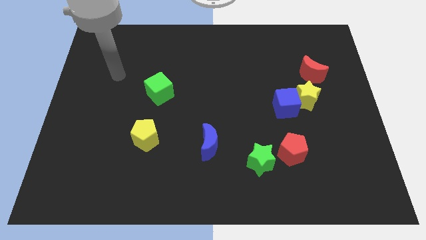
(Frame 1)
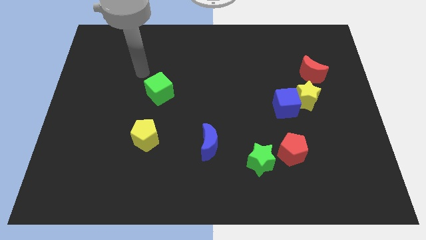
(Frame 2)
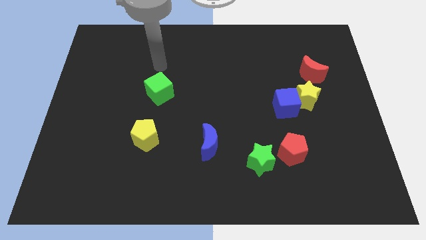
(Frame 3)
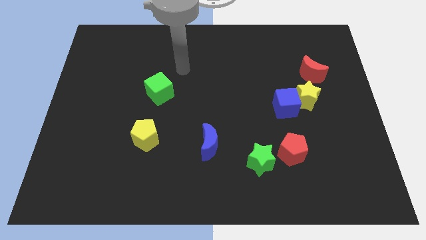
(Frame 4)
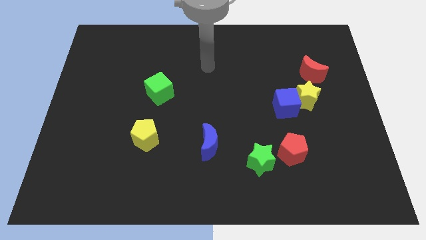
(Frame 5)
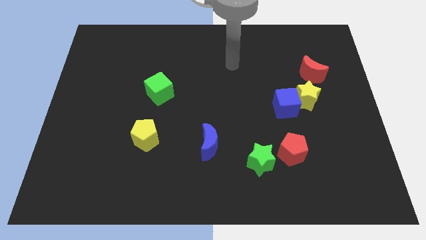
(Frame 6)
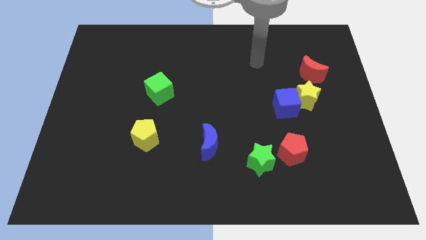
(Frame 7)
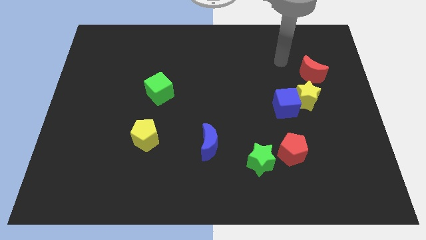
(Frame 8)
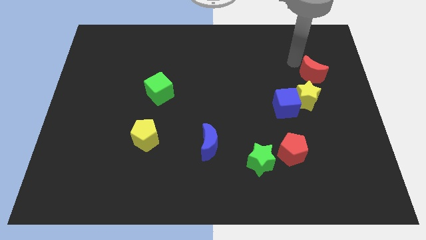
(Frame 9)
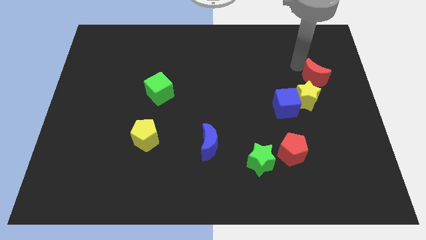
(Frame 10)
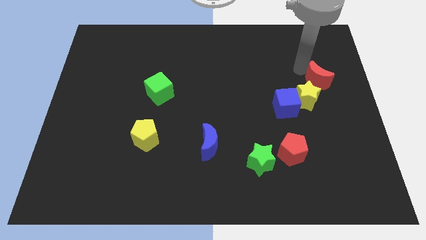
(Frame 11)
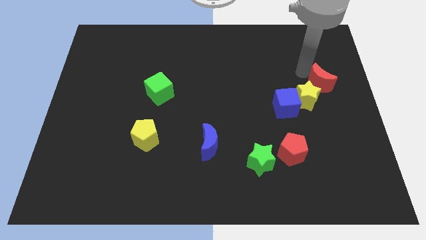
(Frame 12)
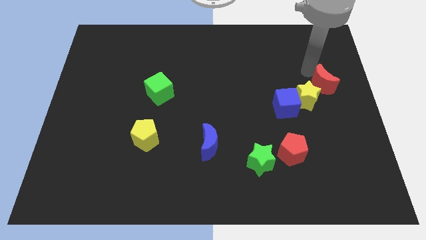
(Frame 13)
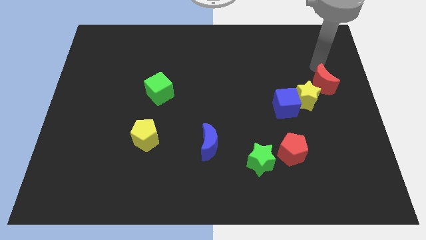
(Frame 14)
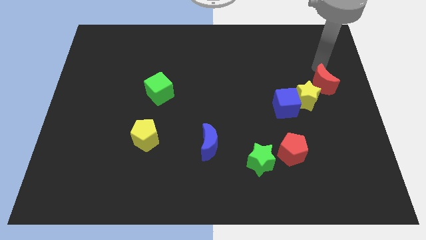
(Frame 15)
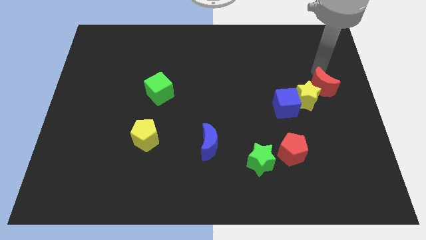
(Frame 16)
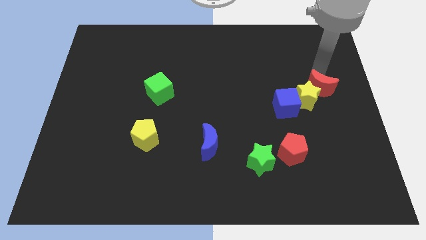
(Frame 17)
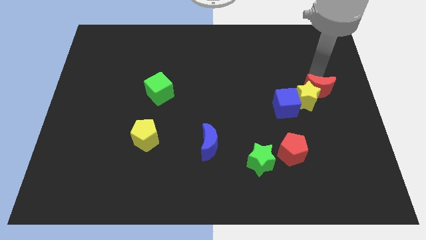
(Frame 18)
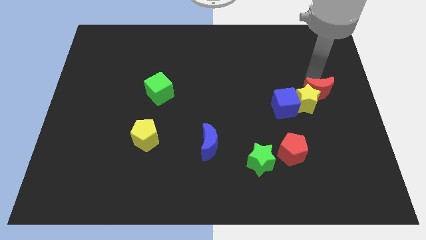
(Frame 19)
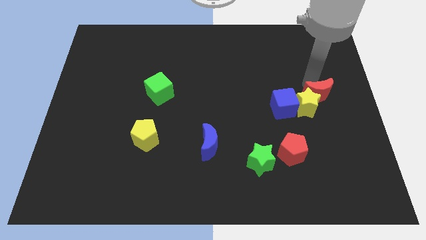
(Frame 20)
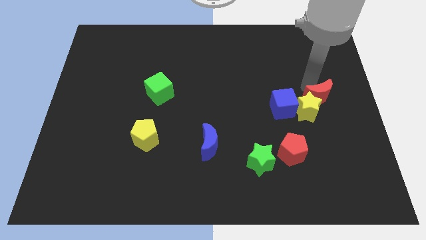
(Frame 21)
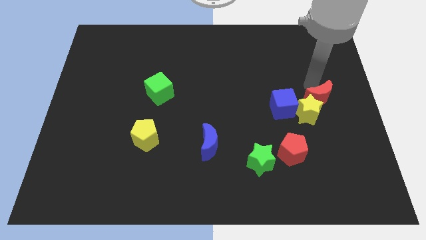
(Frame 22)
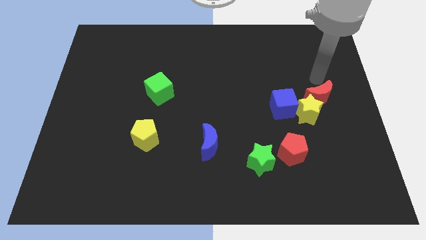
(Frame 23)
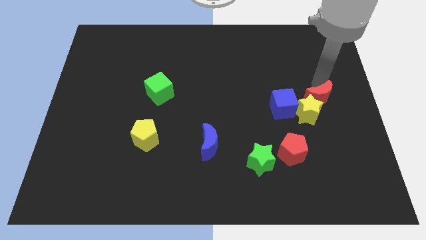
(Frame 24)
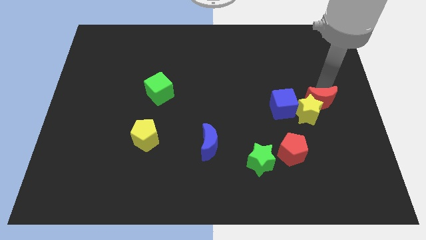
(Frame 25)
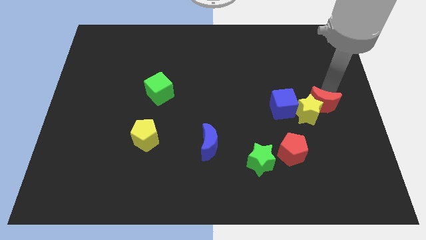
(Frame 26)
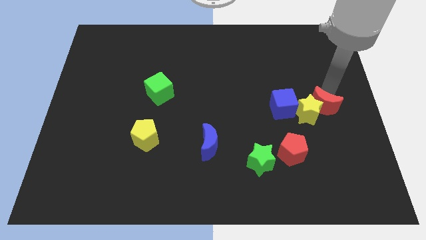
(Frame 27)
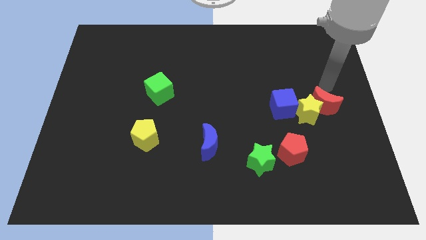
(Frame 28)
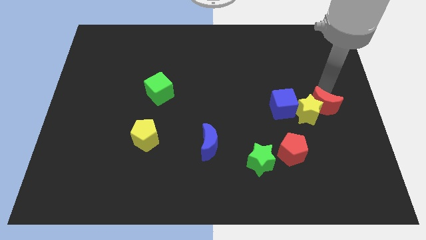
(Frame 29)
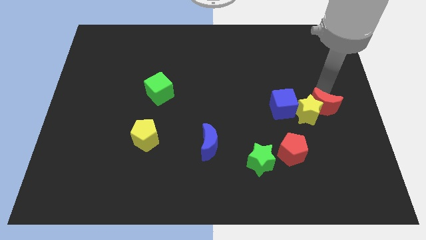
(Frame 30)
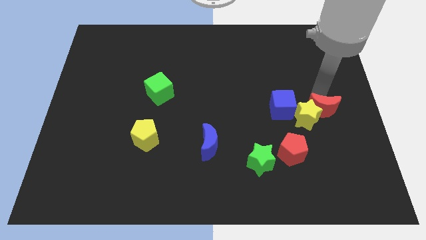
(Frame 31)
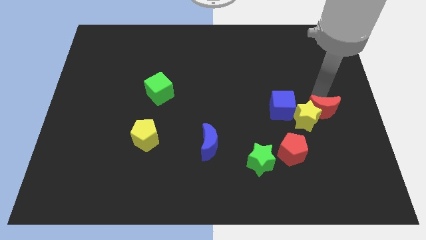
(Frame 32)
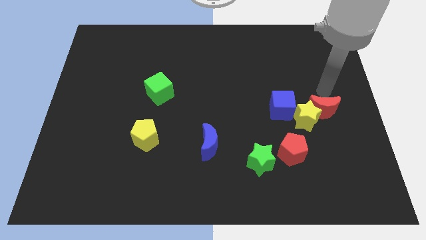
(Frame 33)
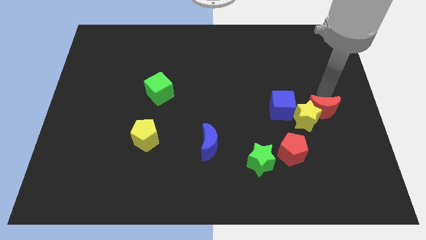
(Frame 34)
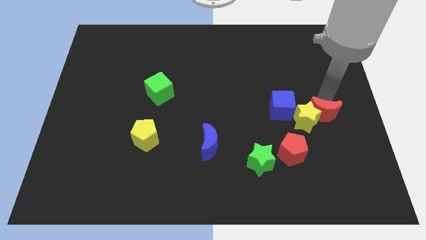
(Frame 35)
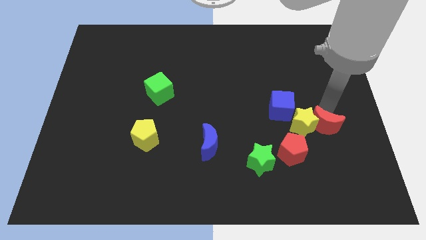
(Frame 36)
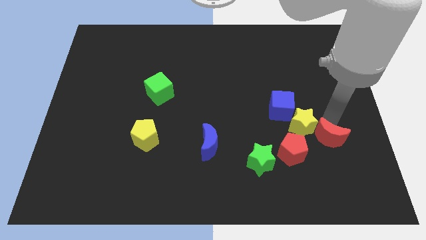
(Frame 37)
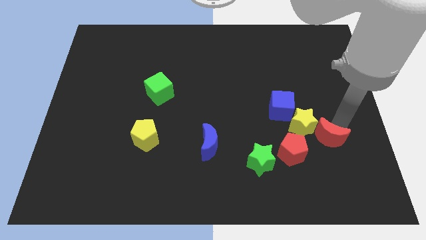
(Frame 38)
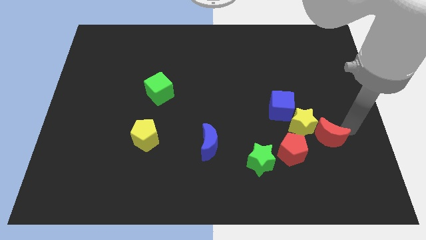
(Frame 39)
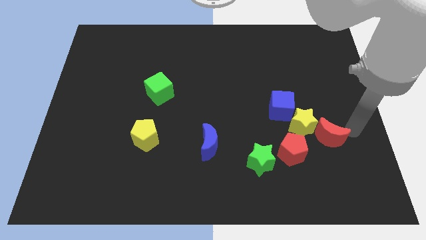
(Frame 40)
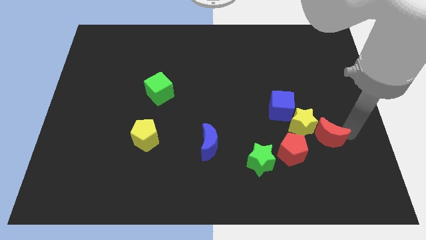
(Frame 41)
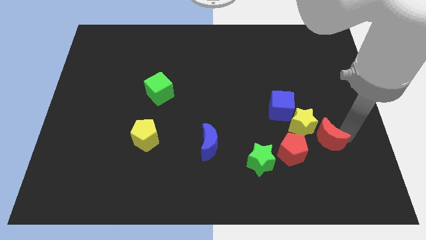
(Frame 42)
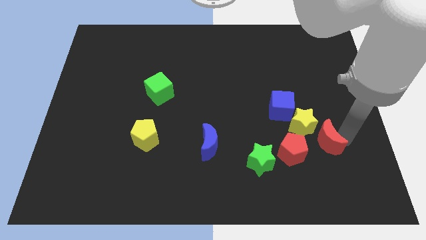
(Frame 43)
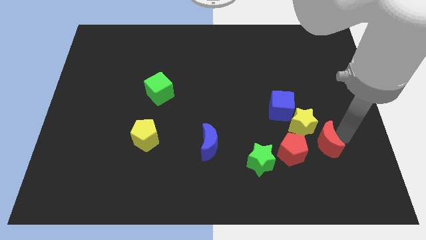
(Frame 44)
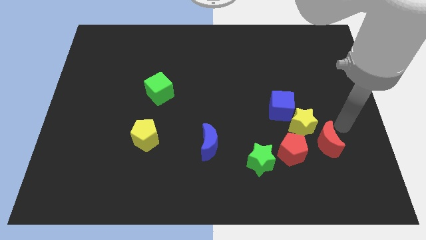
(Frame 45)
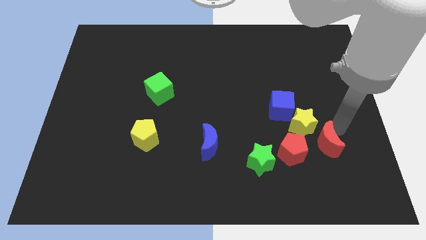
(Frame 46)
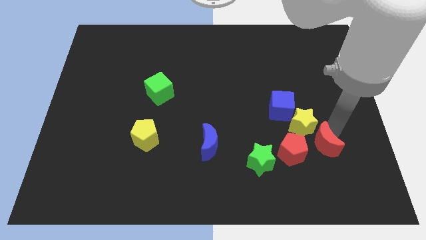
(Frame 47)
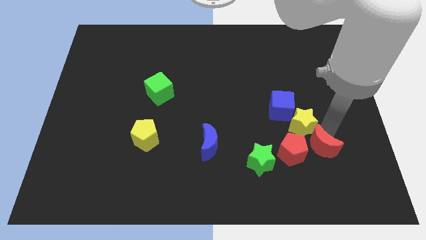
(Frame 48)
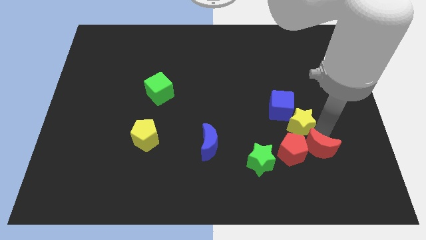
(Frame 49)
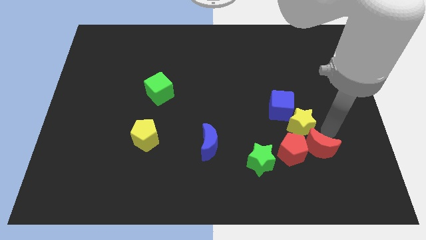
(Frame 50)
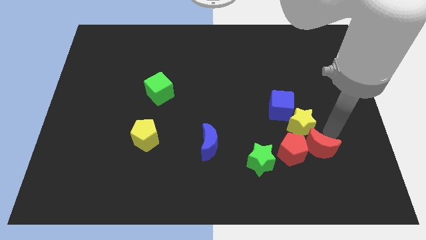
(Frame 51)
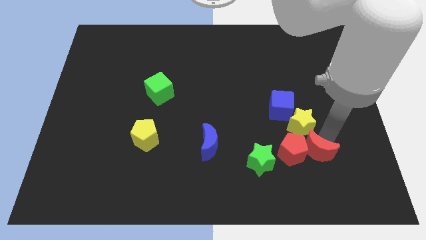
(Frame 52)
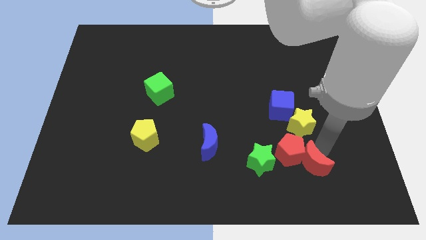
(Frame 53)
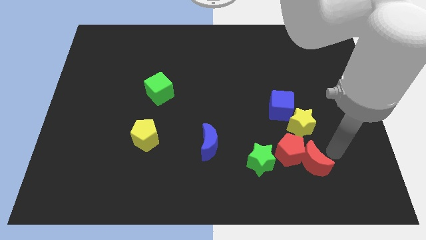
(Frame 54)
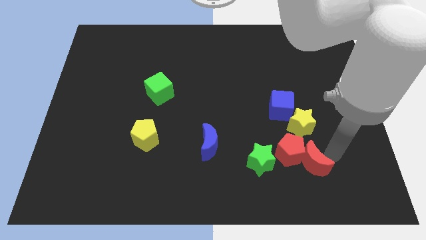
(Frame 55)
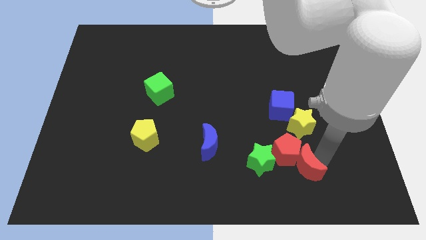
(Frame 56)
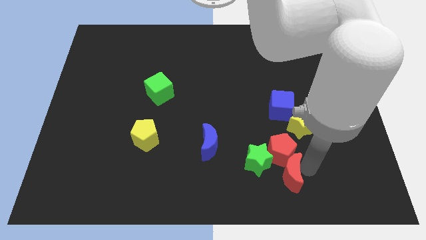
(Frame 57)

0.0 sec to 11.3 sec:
push the red moon diagonally down and to the left of the red pentagon

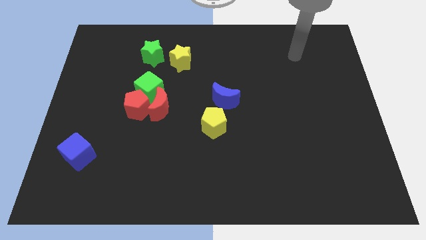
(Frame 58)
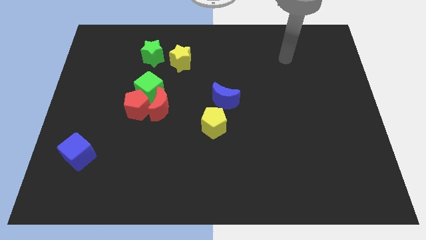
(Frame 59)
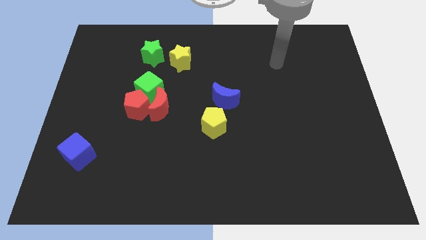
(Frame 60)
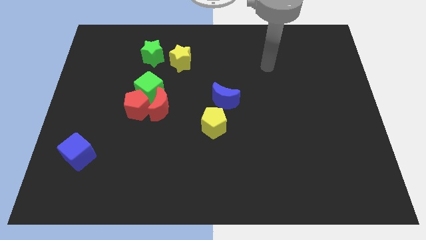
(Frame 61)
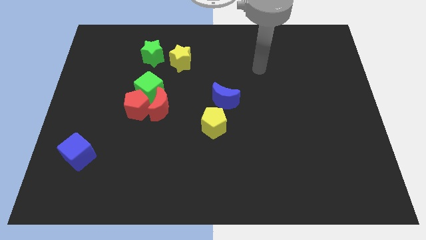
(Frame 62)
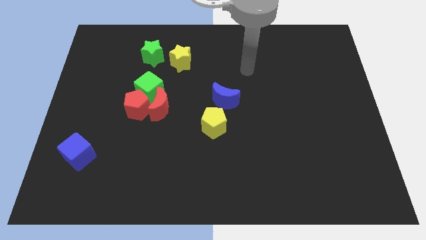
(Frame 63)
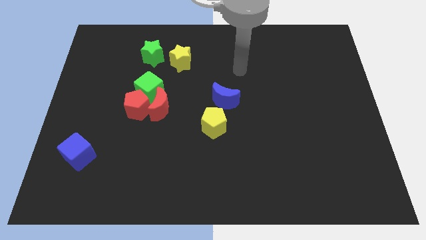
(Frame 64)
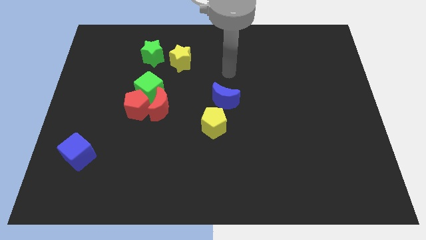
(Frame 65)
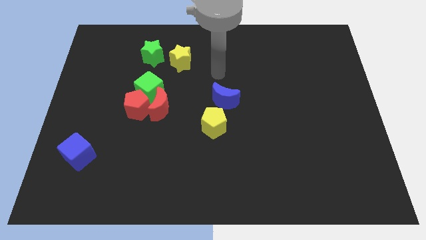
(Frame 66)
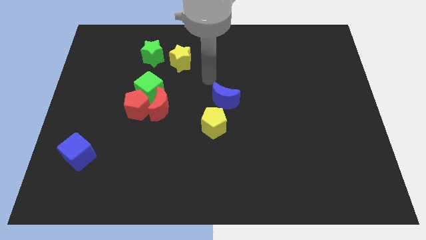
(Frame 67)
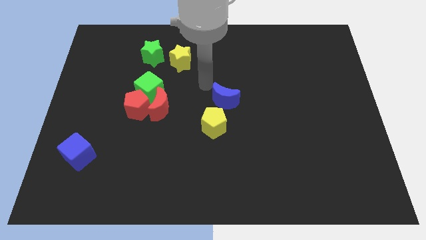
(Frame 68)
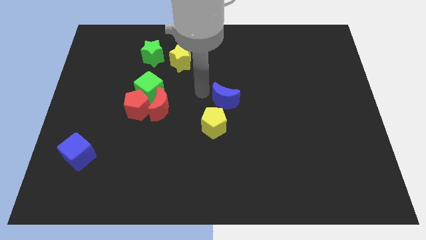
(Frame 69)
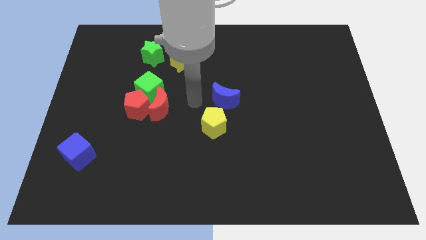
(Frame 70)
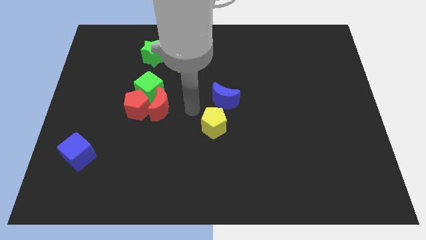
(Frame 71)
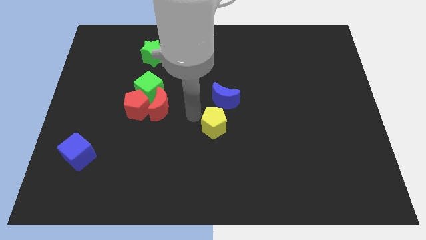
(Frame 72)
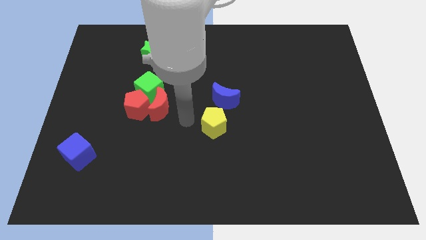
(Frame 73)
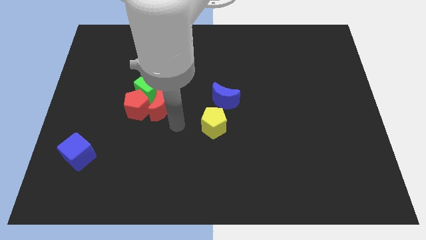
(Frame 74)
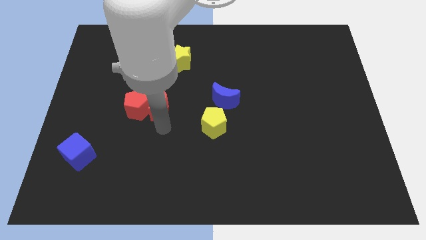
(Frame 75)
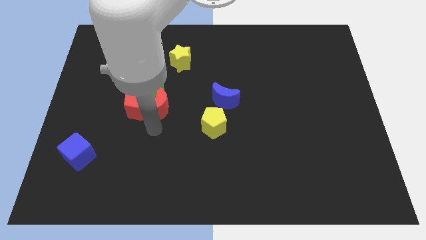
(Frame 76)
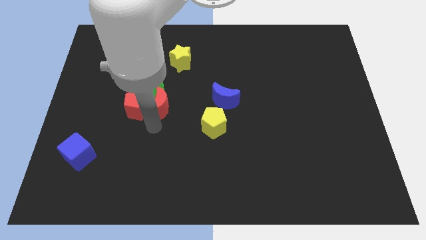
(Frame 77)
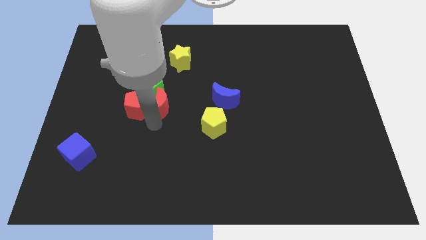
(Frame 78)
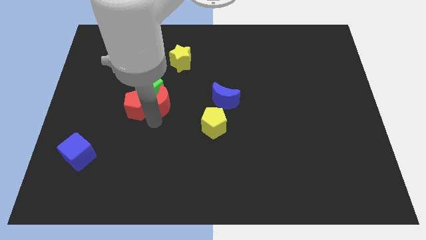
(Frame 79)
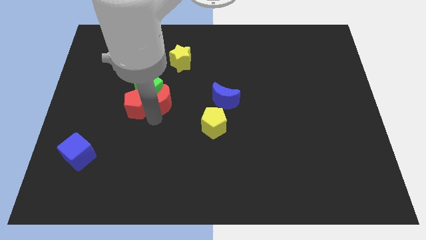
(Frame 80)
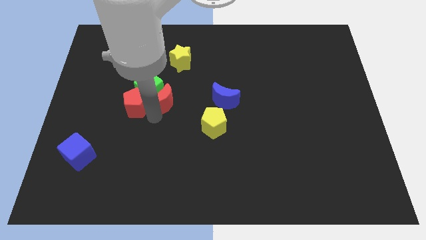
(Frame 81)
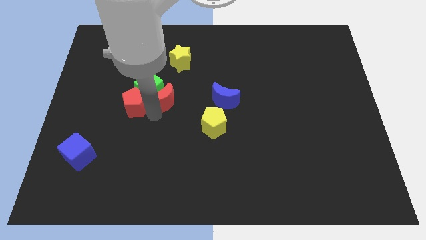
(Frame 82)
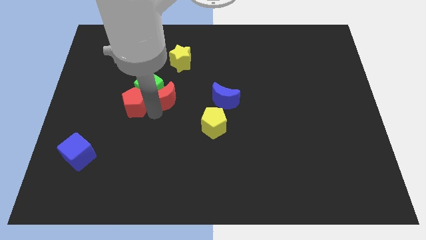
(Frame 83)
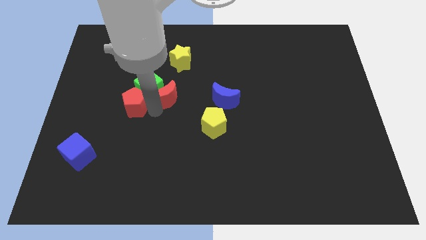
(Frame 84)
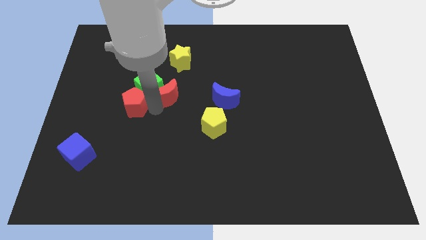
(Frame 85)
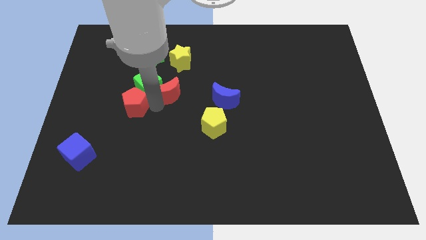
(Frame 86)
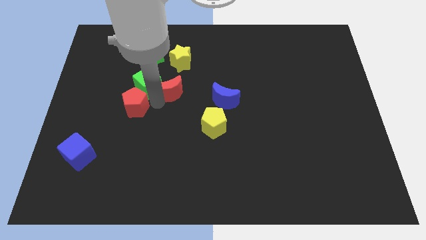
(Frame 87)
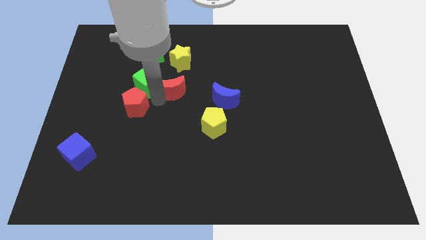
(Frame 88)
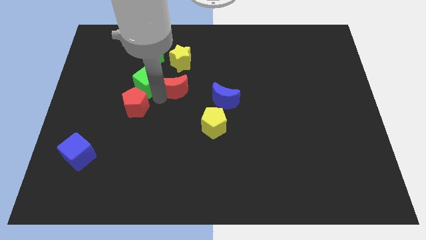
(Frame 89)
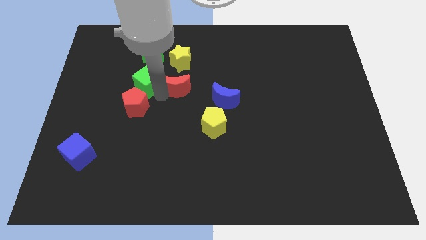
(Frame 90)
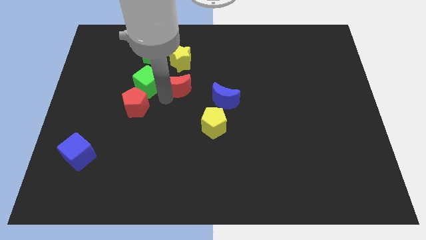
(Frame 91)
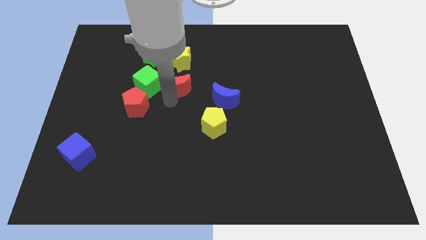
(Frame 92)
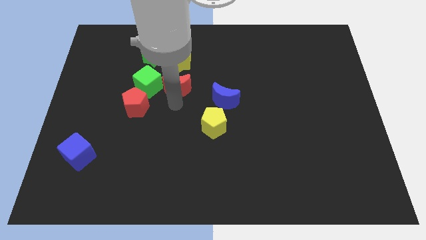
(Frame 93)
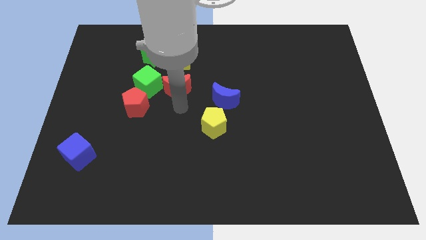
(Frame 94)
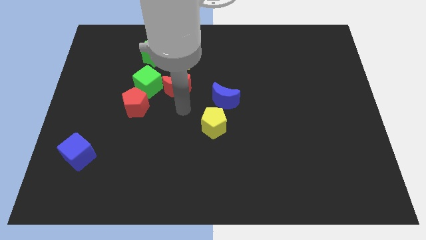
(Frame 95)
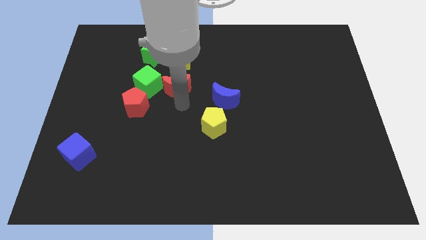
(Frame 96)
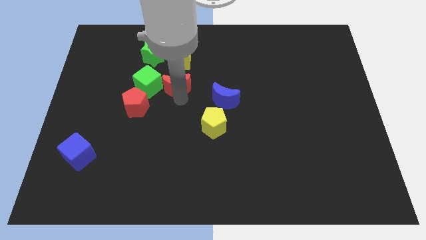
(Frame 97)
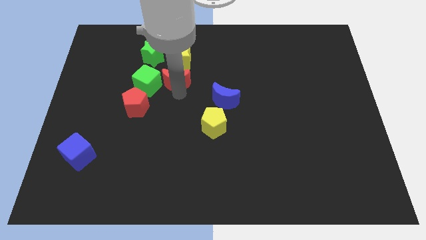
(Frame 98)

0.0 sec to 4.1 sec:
push the red moon to the bottom right of the green star
